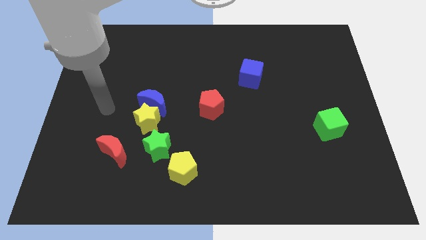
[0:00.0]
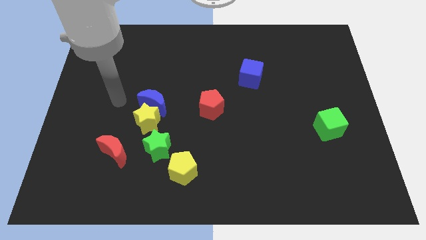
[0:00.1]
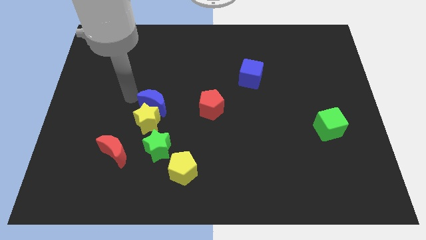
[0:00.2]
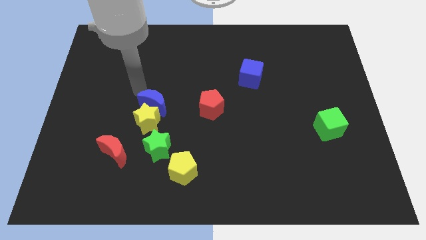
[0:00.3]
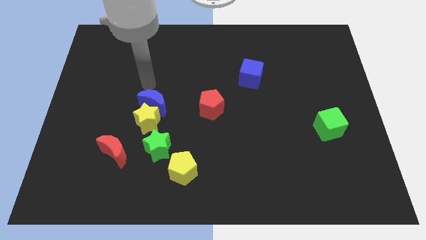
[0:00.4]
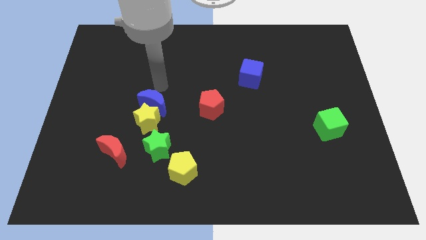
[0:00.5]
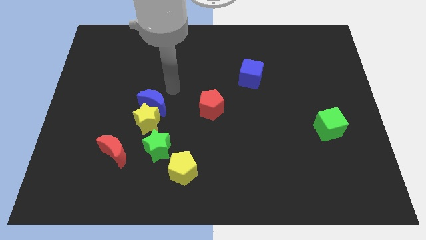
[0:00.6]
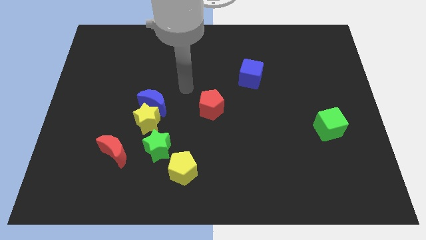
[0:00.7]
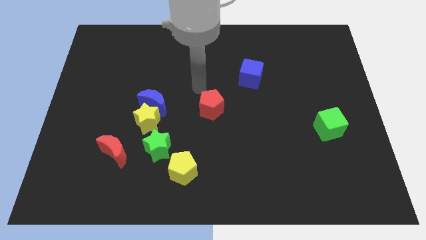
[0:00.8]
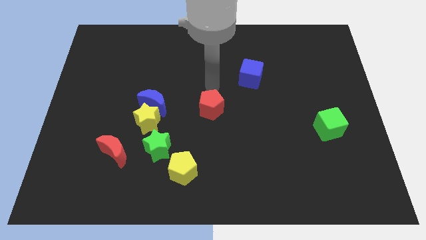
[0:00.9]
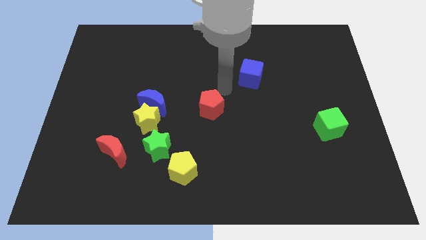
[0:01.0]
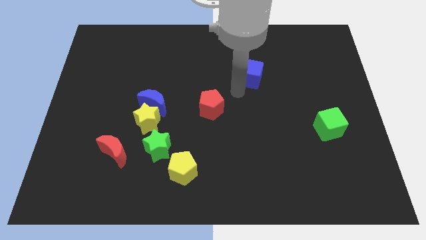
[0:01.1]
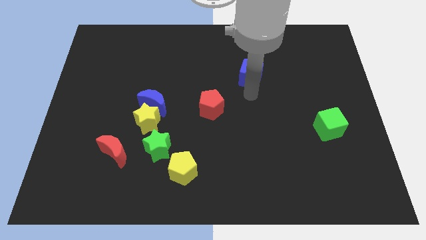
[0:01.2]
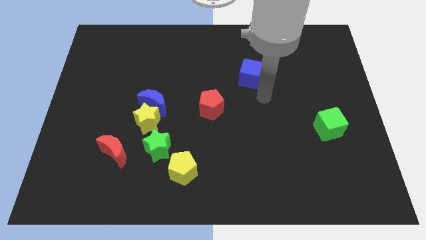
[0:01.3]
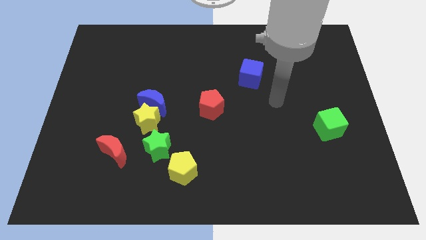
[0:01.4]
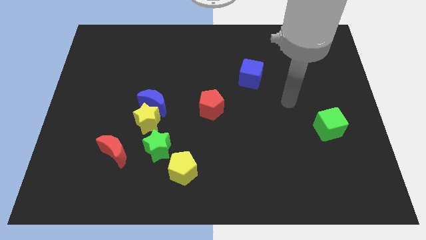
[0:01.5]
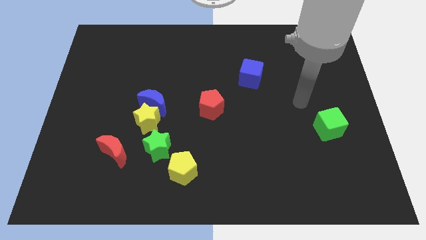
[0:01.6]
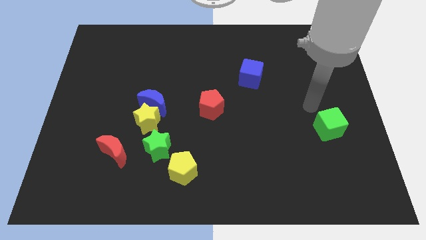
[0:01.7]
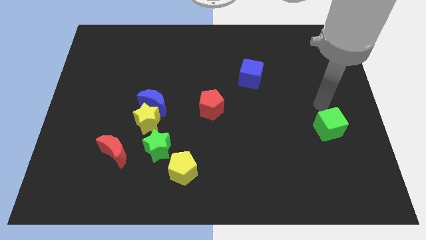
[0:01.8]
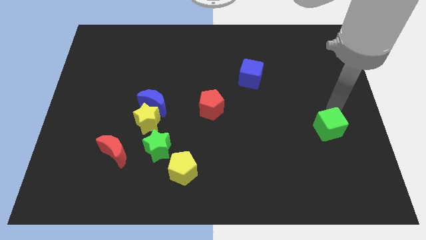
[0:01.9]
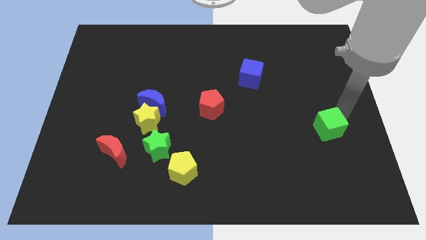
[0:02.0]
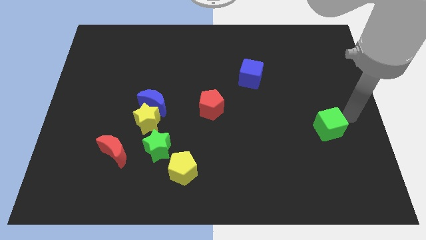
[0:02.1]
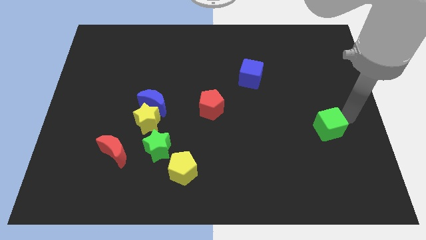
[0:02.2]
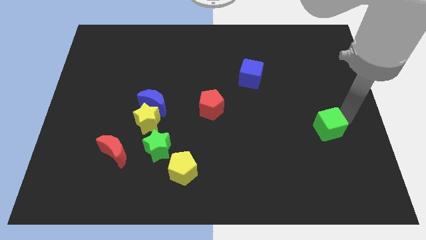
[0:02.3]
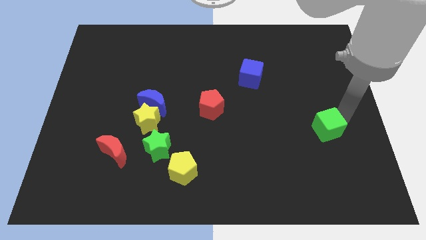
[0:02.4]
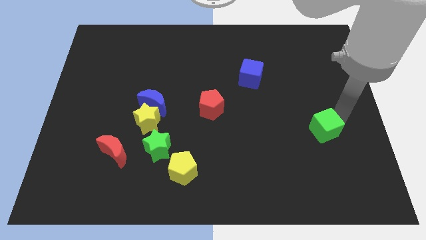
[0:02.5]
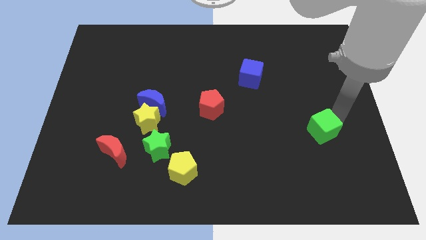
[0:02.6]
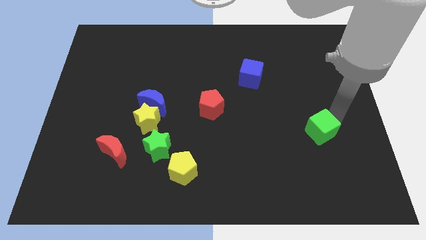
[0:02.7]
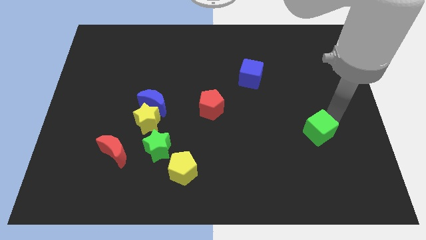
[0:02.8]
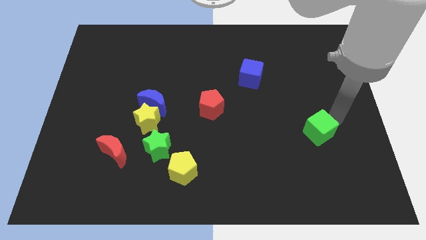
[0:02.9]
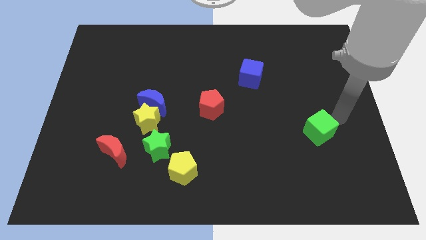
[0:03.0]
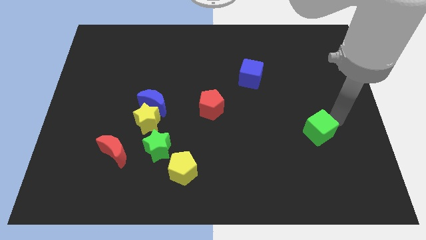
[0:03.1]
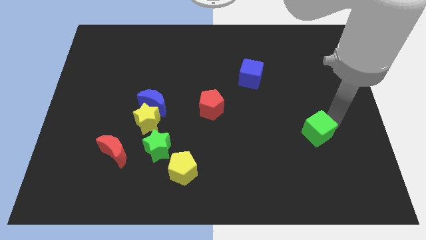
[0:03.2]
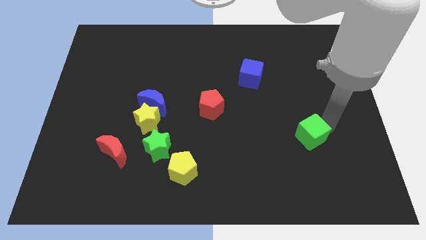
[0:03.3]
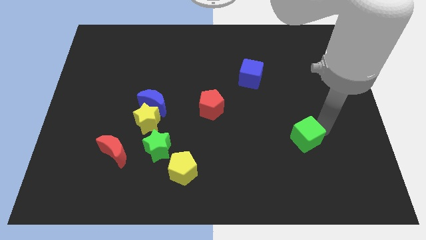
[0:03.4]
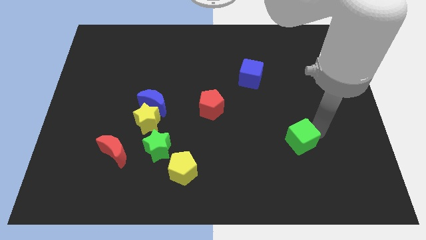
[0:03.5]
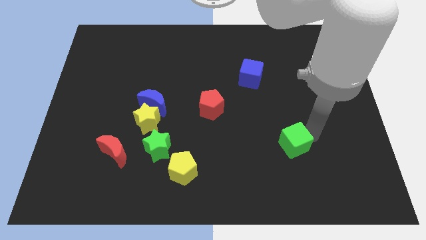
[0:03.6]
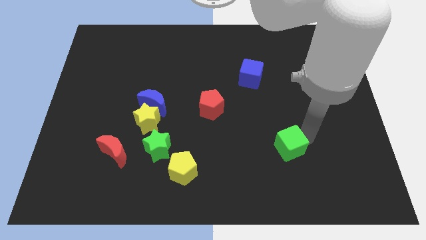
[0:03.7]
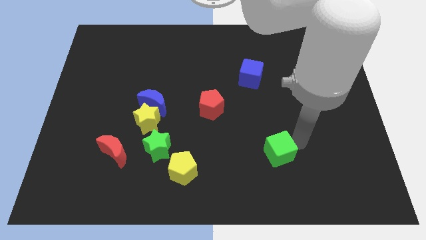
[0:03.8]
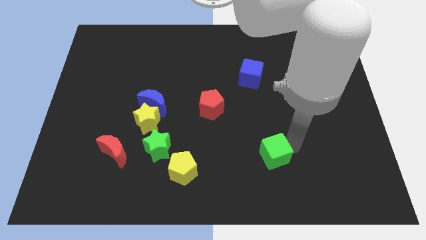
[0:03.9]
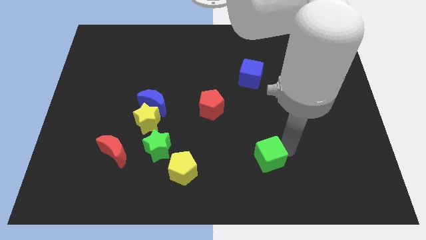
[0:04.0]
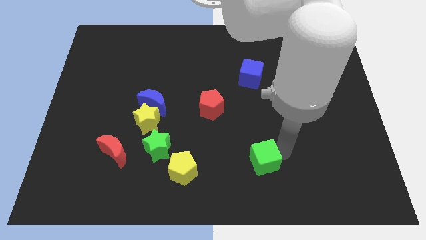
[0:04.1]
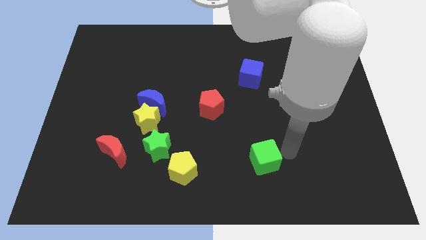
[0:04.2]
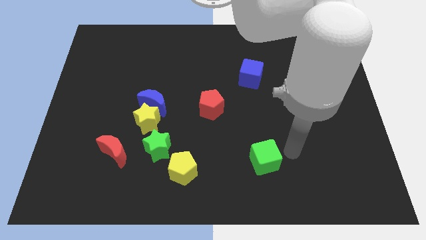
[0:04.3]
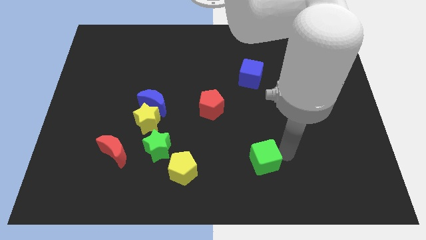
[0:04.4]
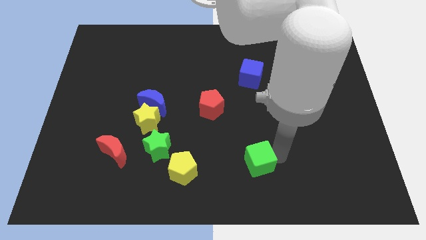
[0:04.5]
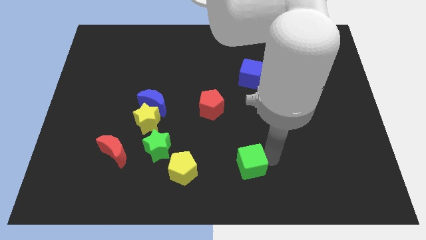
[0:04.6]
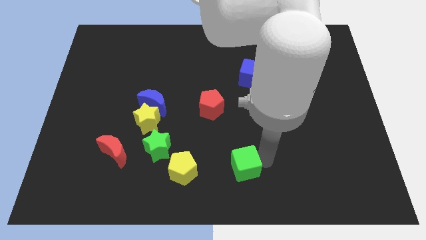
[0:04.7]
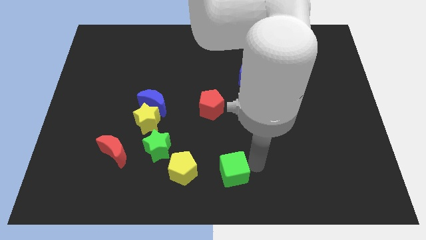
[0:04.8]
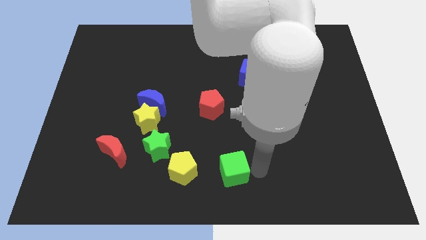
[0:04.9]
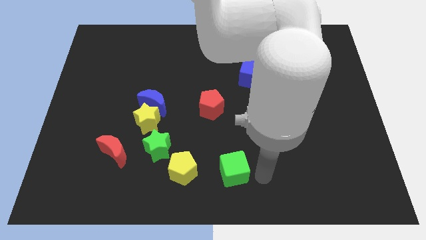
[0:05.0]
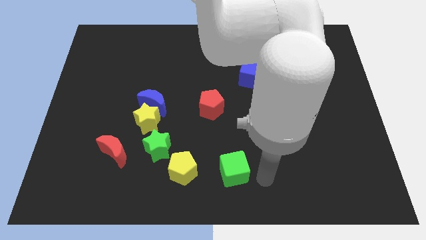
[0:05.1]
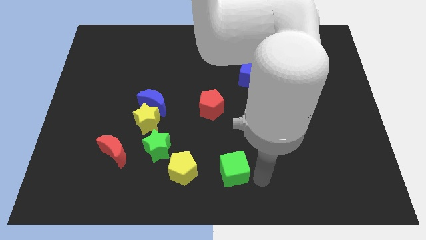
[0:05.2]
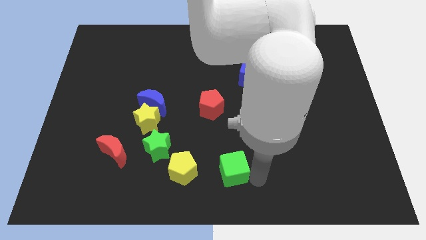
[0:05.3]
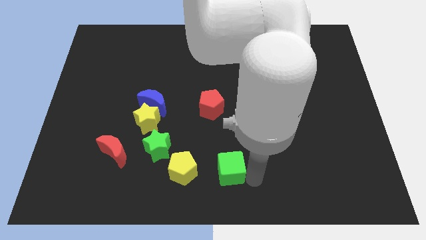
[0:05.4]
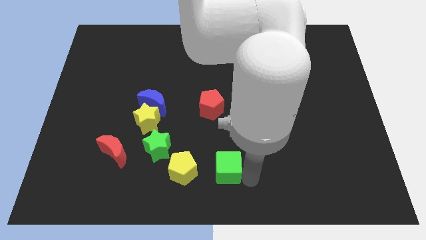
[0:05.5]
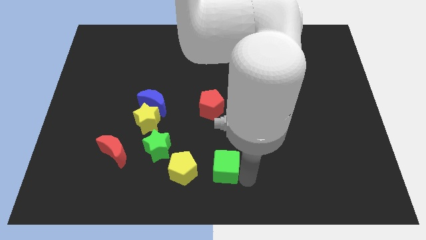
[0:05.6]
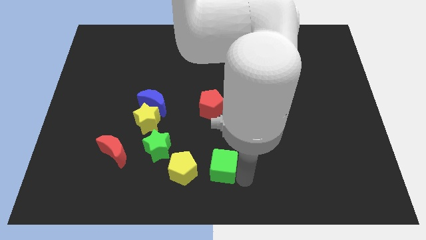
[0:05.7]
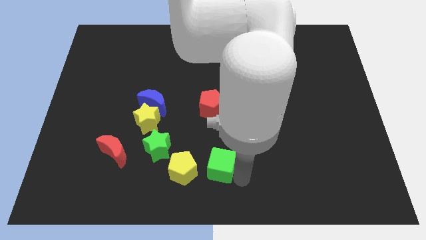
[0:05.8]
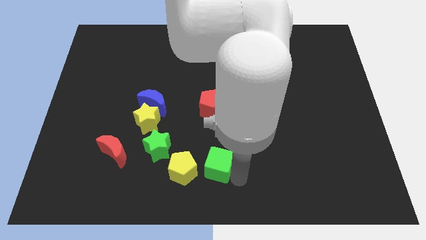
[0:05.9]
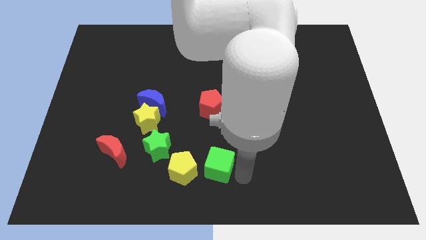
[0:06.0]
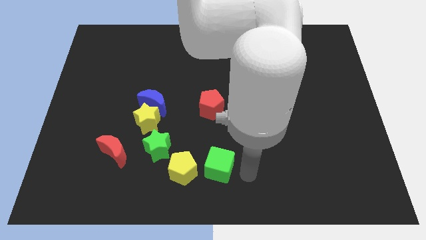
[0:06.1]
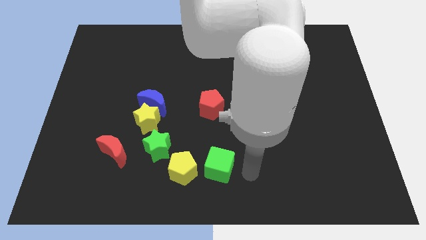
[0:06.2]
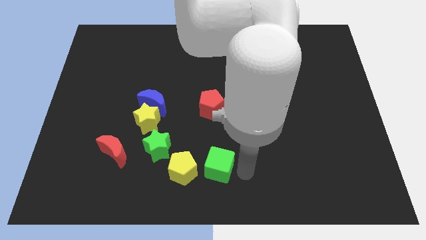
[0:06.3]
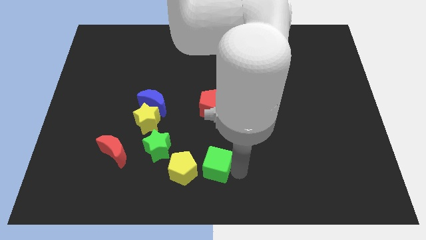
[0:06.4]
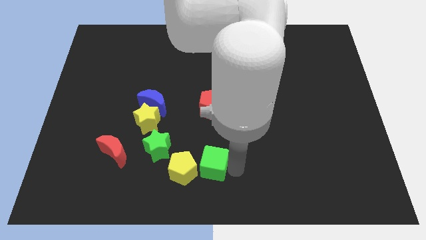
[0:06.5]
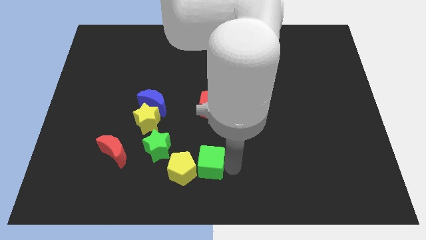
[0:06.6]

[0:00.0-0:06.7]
move the green cube next to the yellow pentagon

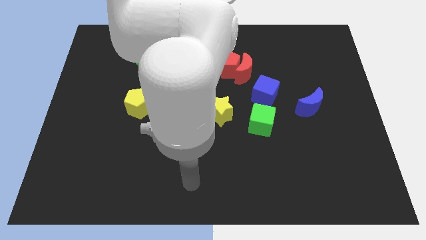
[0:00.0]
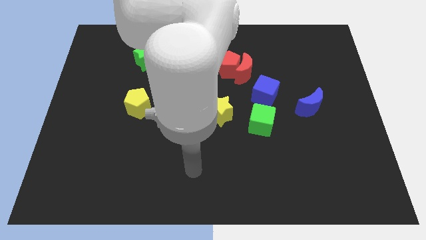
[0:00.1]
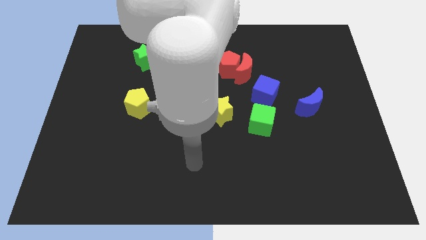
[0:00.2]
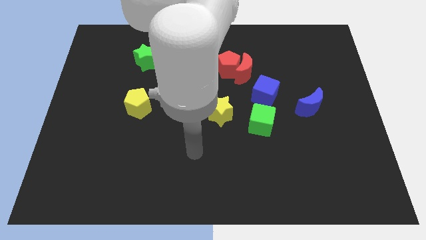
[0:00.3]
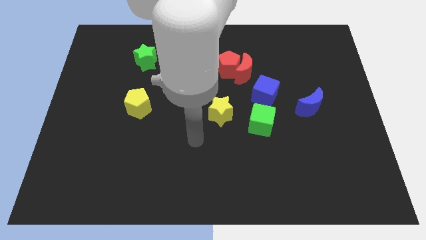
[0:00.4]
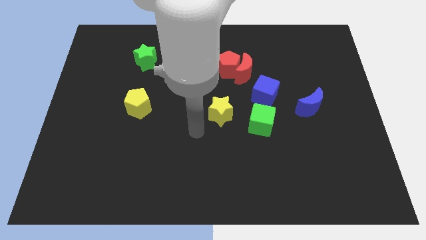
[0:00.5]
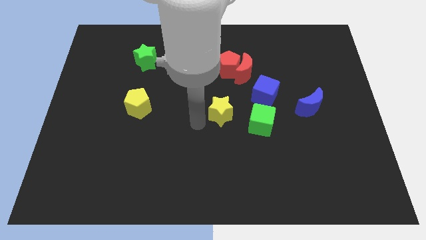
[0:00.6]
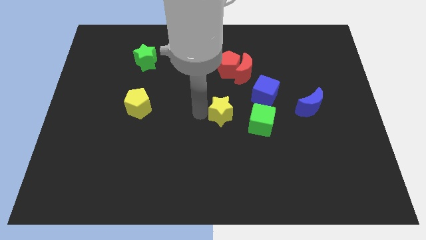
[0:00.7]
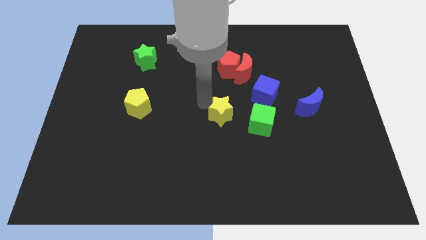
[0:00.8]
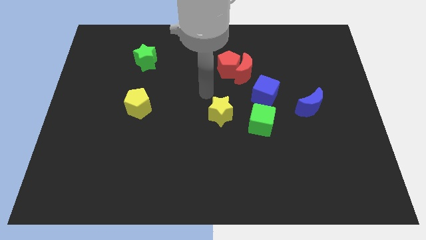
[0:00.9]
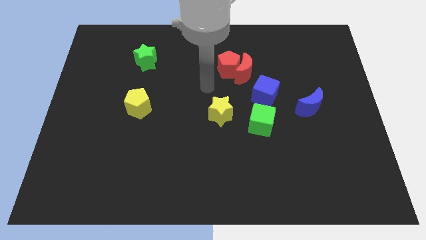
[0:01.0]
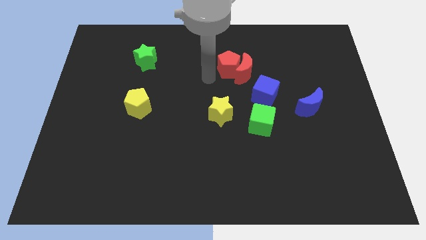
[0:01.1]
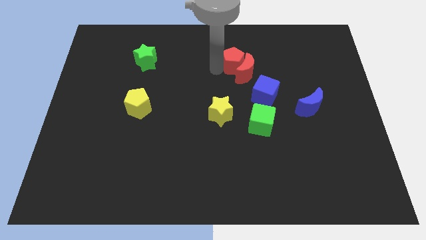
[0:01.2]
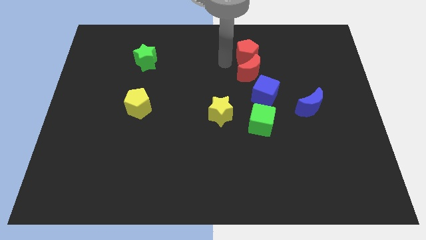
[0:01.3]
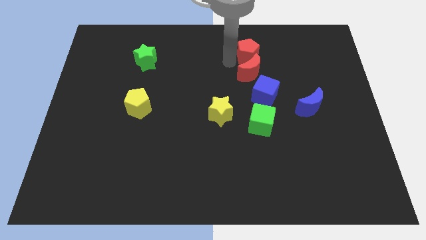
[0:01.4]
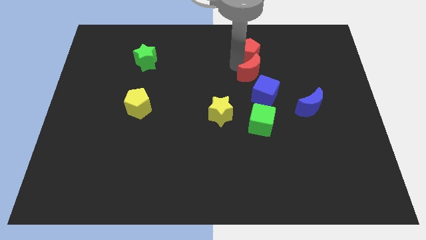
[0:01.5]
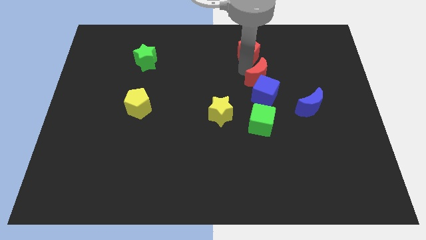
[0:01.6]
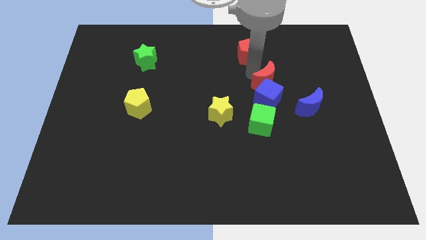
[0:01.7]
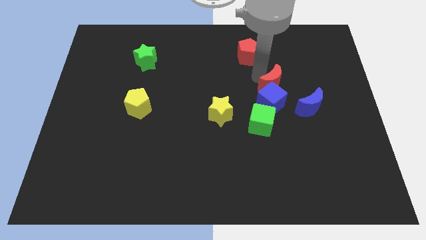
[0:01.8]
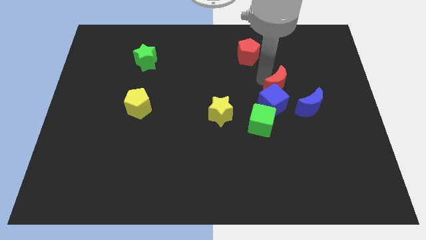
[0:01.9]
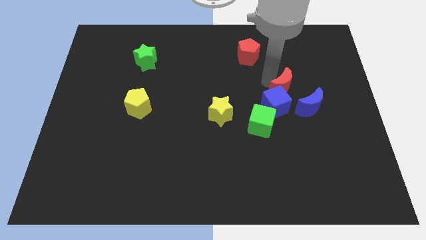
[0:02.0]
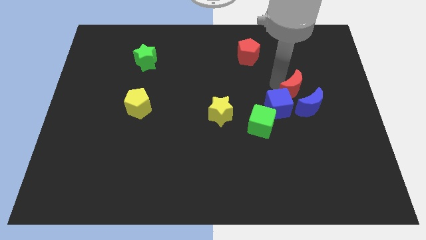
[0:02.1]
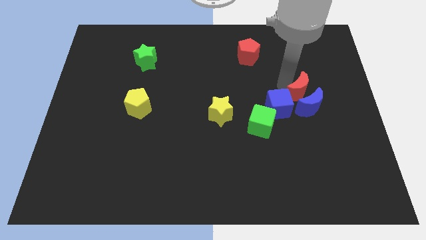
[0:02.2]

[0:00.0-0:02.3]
put the red moon towards the blue moon
